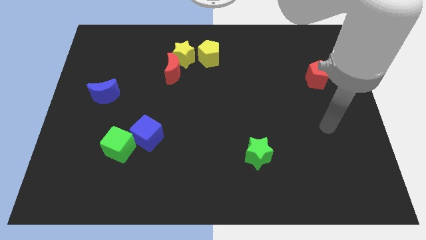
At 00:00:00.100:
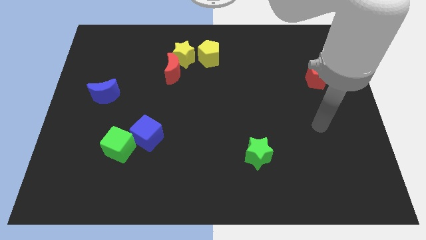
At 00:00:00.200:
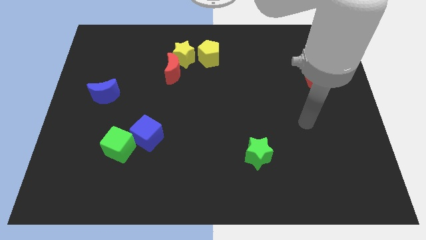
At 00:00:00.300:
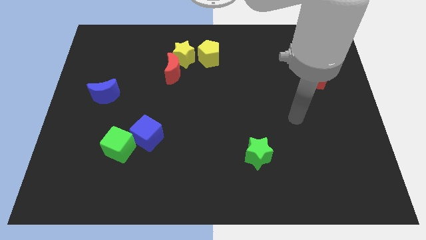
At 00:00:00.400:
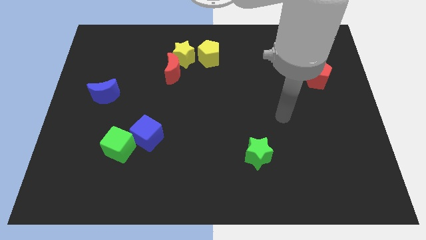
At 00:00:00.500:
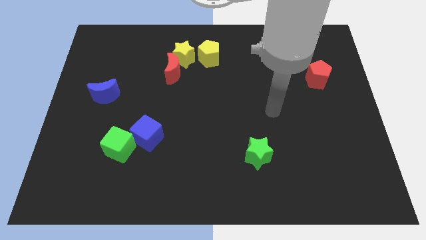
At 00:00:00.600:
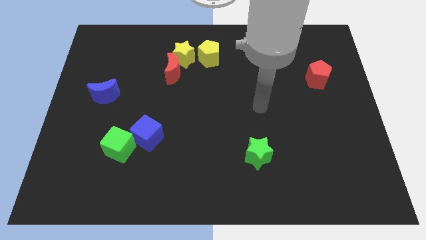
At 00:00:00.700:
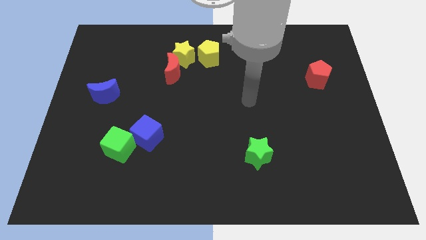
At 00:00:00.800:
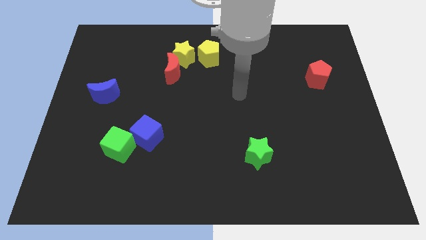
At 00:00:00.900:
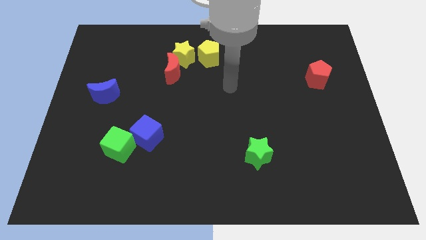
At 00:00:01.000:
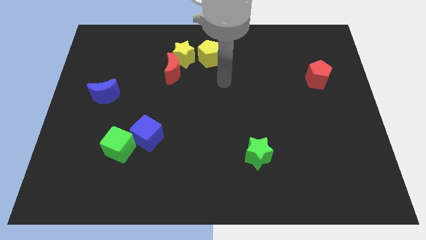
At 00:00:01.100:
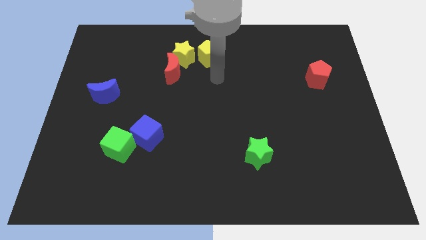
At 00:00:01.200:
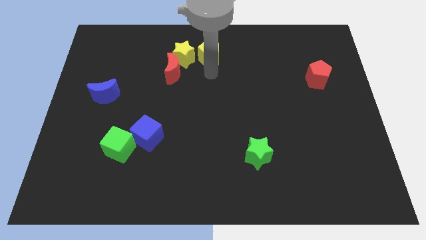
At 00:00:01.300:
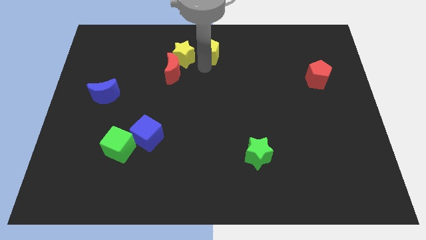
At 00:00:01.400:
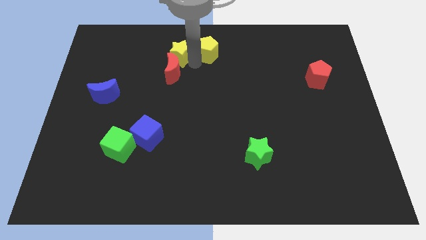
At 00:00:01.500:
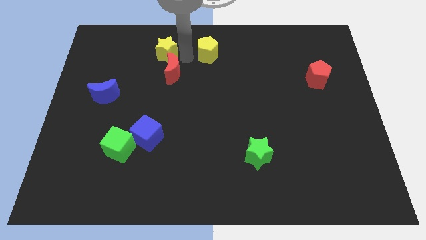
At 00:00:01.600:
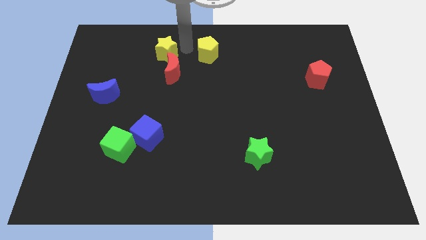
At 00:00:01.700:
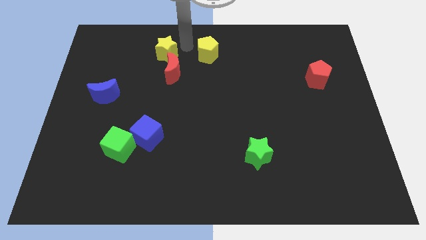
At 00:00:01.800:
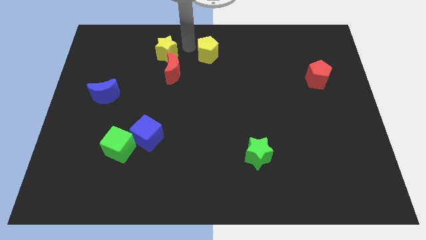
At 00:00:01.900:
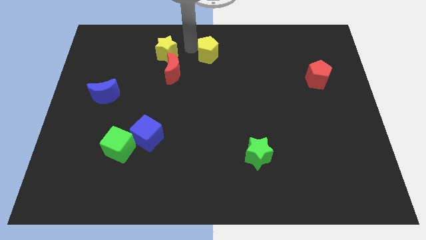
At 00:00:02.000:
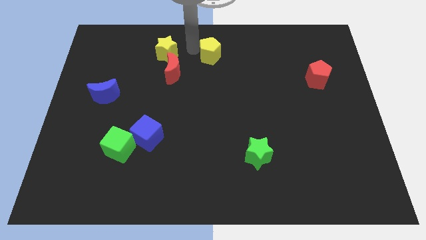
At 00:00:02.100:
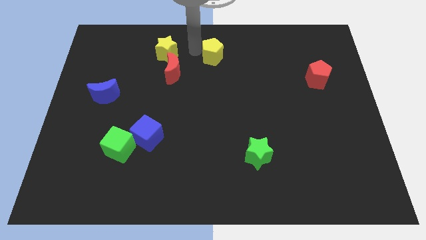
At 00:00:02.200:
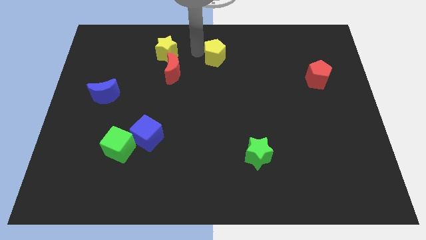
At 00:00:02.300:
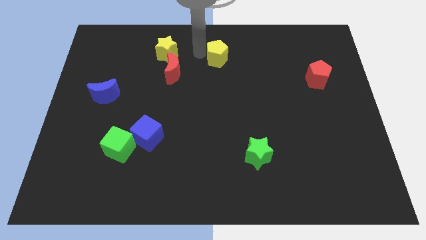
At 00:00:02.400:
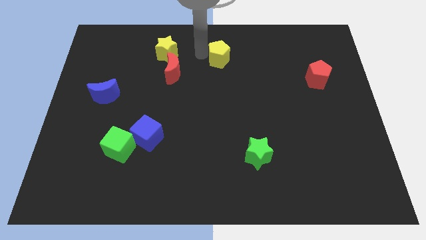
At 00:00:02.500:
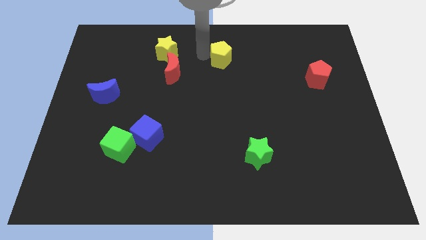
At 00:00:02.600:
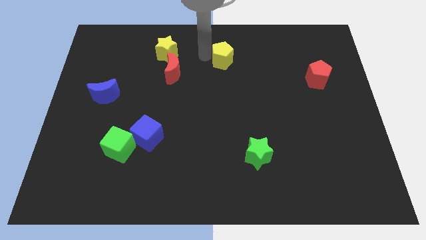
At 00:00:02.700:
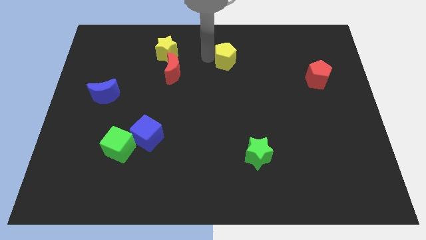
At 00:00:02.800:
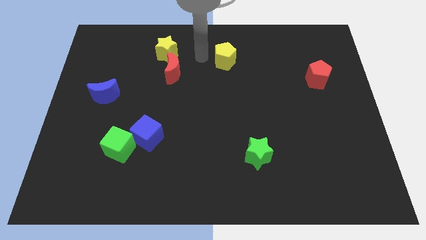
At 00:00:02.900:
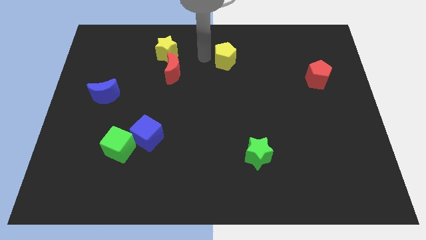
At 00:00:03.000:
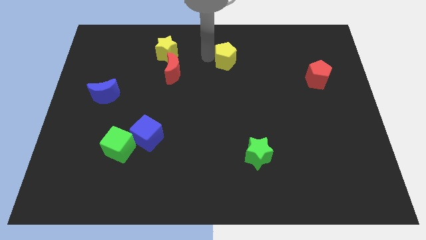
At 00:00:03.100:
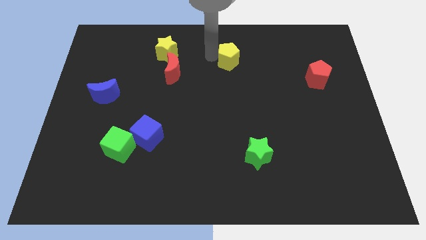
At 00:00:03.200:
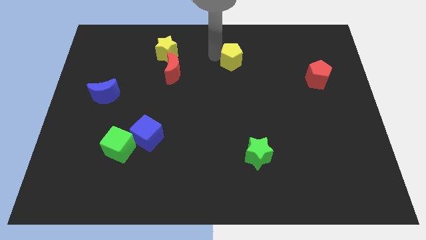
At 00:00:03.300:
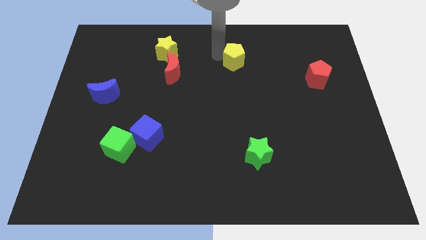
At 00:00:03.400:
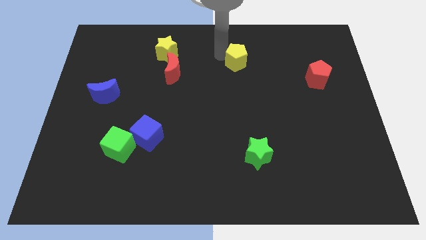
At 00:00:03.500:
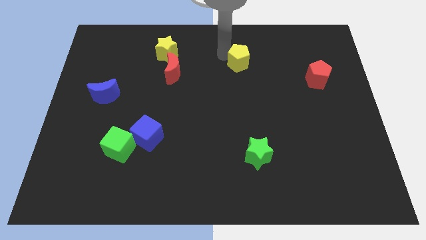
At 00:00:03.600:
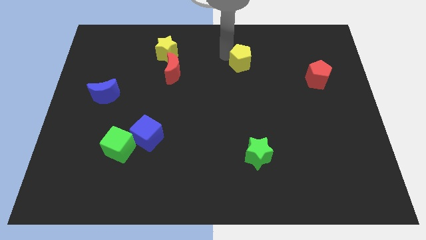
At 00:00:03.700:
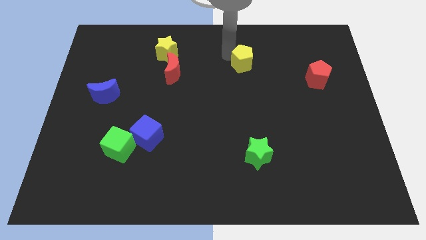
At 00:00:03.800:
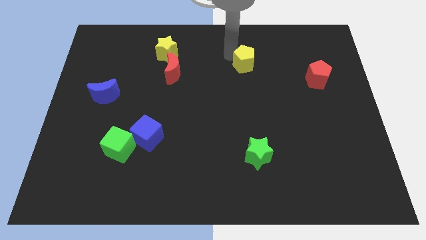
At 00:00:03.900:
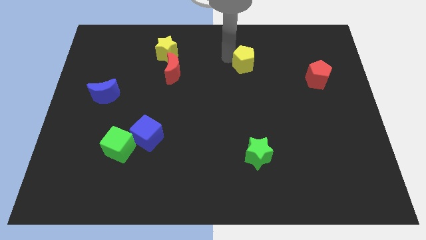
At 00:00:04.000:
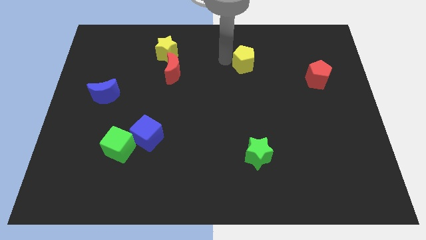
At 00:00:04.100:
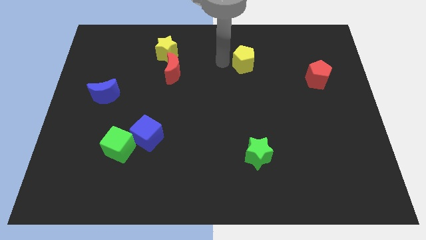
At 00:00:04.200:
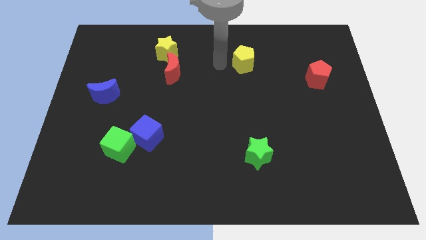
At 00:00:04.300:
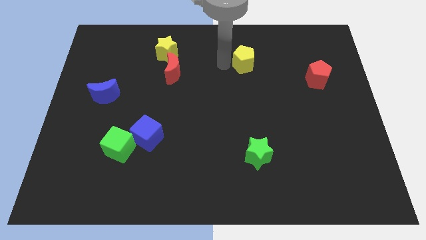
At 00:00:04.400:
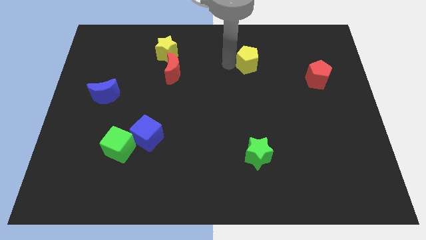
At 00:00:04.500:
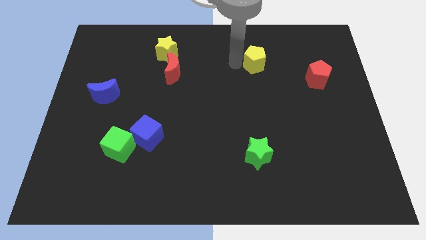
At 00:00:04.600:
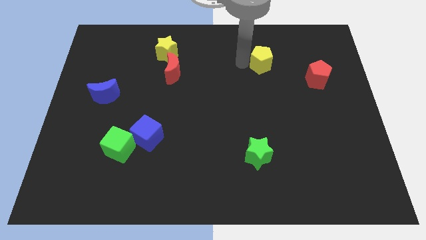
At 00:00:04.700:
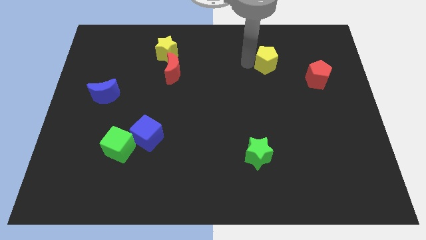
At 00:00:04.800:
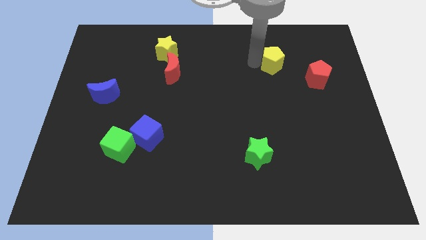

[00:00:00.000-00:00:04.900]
slide the yellow pentagon to the top left of the red pentagon

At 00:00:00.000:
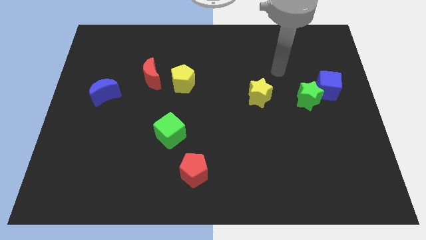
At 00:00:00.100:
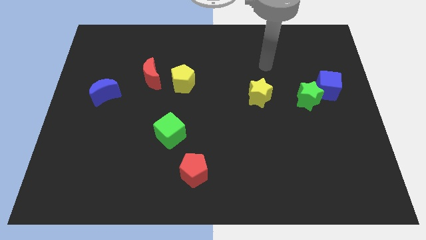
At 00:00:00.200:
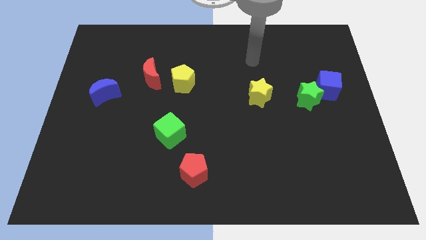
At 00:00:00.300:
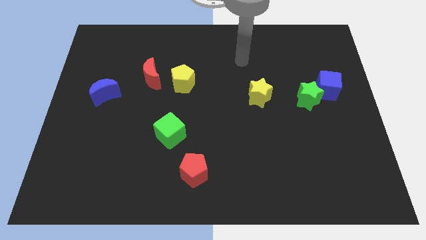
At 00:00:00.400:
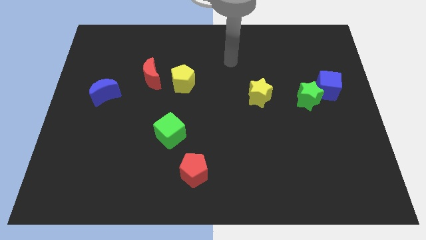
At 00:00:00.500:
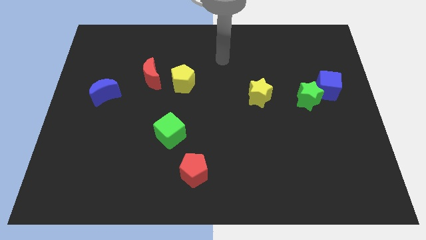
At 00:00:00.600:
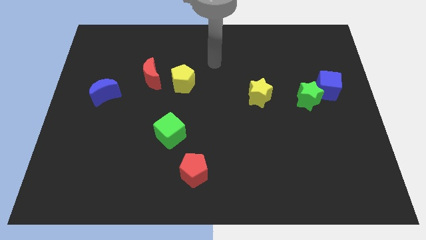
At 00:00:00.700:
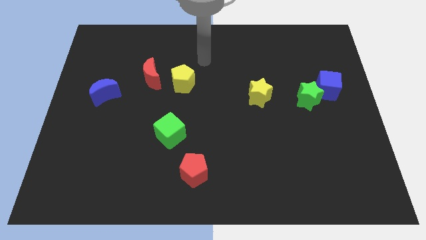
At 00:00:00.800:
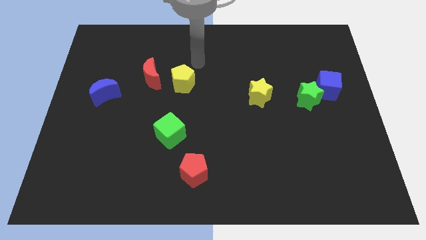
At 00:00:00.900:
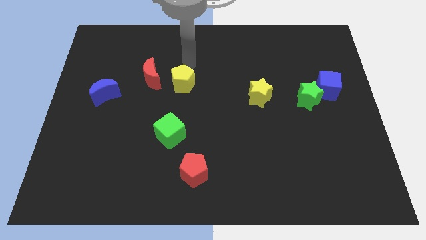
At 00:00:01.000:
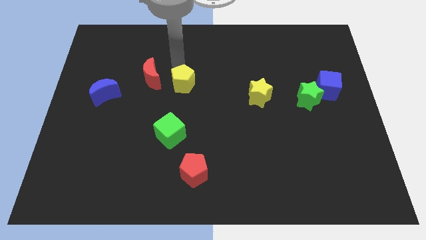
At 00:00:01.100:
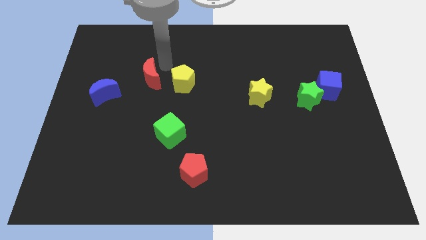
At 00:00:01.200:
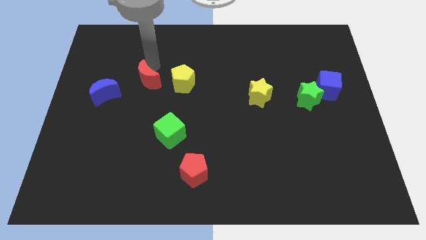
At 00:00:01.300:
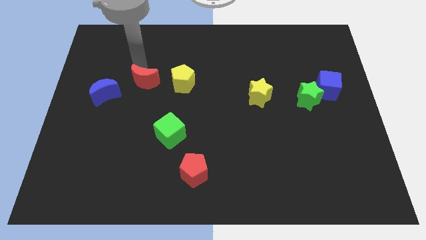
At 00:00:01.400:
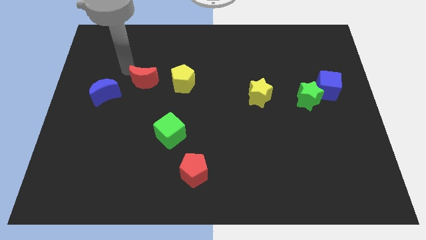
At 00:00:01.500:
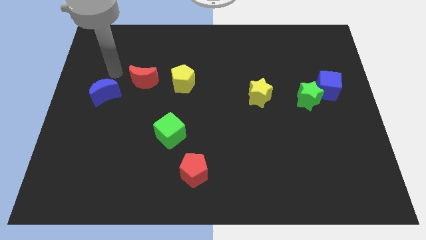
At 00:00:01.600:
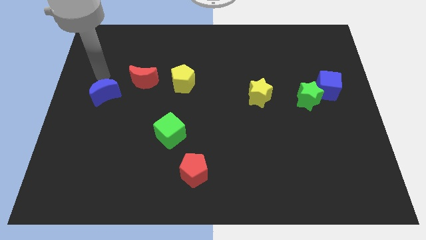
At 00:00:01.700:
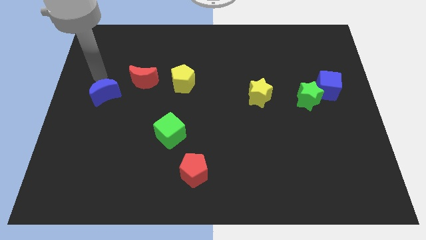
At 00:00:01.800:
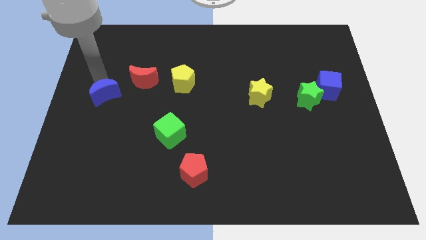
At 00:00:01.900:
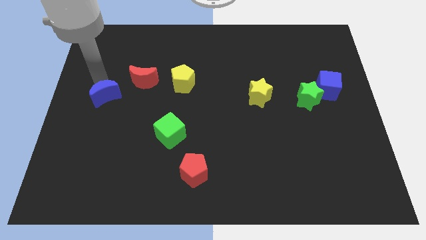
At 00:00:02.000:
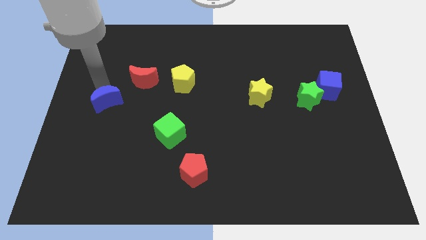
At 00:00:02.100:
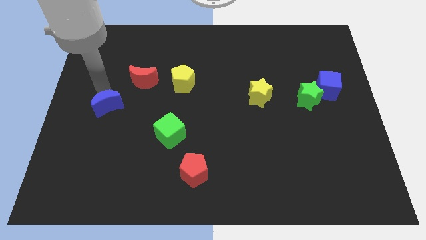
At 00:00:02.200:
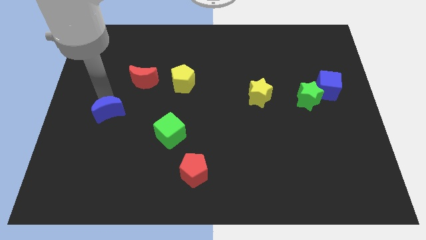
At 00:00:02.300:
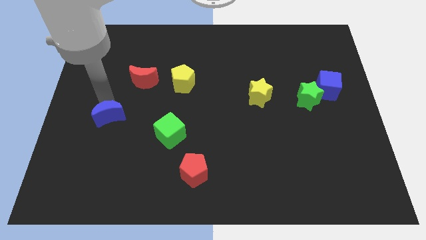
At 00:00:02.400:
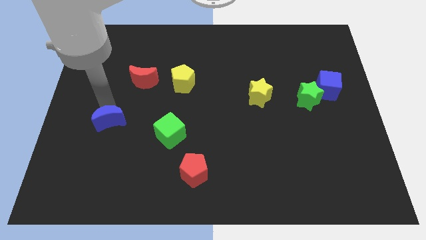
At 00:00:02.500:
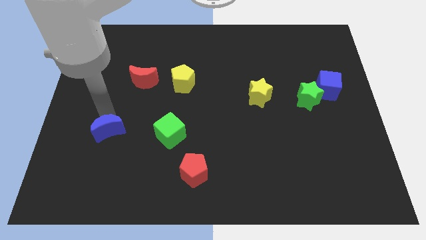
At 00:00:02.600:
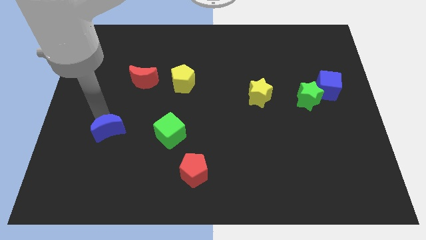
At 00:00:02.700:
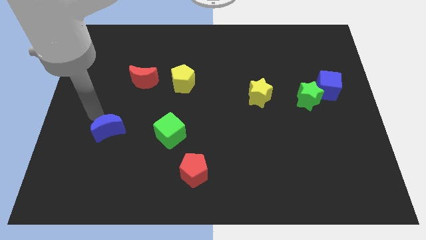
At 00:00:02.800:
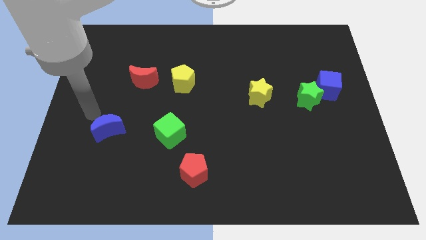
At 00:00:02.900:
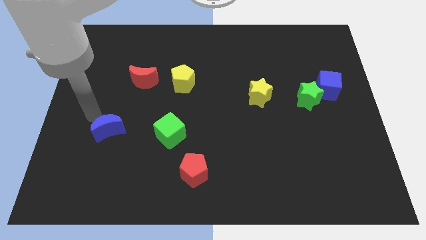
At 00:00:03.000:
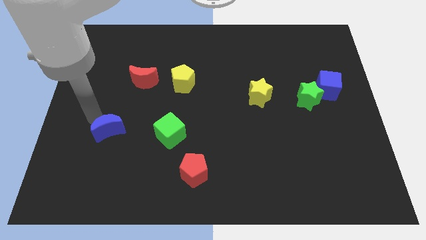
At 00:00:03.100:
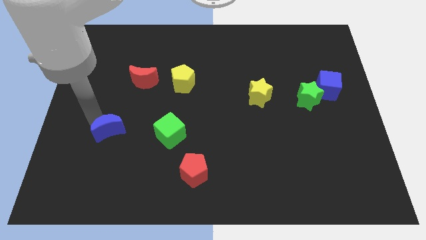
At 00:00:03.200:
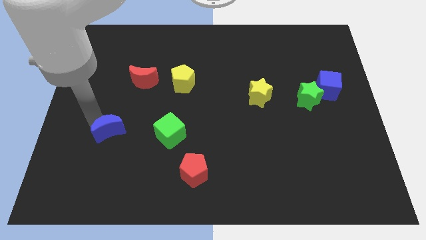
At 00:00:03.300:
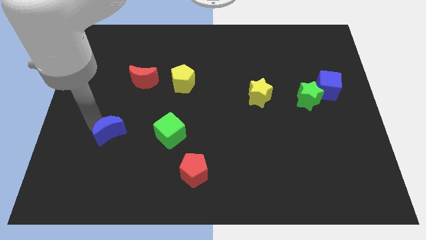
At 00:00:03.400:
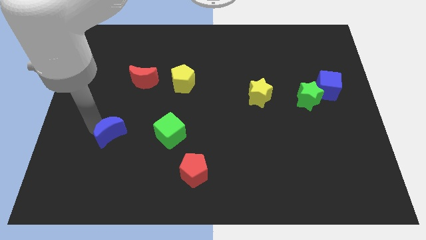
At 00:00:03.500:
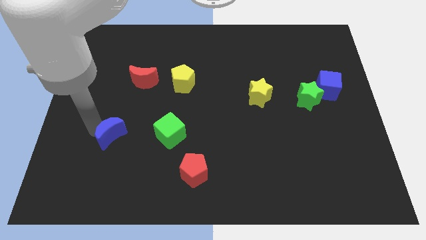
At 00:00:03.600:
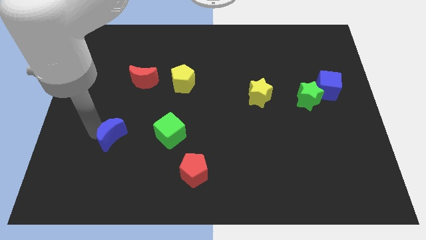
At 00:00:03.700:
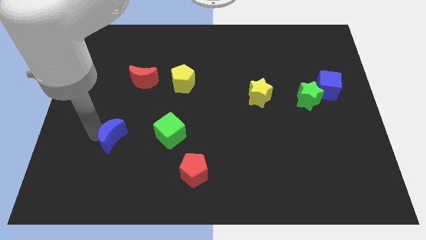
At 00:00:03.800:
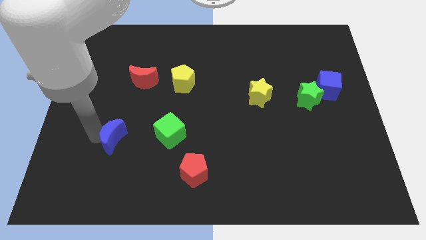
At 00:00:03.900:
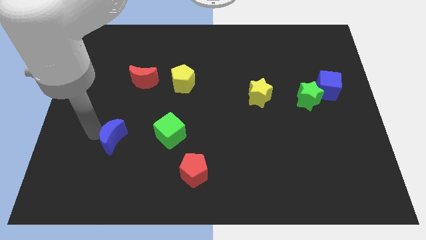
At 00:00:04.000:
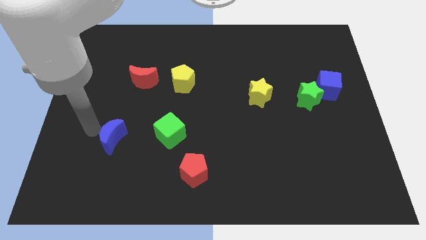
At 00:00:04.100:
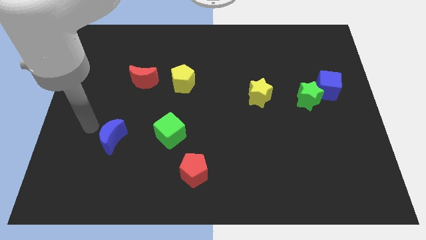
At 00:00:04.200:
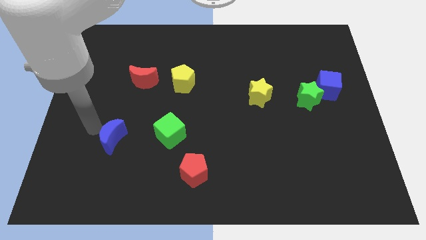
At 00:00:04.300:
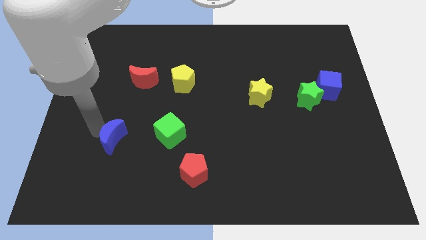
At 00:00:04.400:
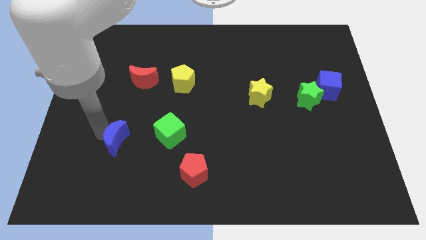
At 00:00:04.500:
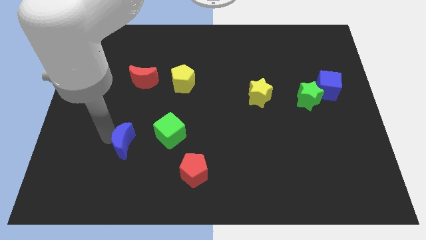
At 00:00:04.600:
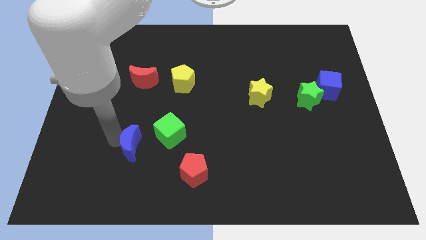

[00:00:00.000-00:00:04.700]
push the blue moon diagonally down and to the left of the green cube
